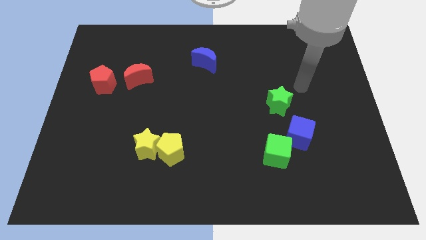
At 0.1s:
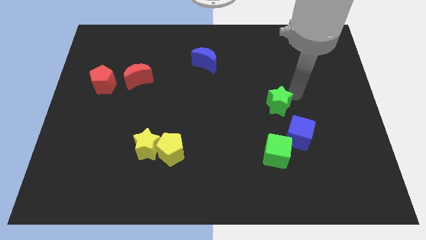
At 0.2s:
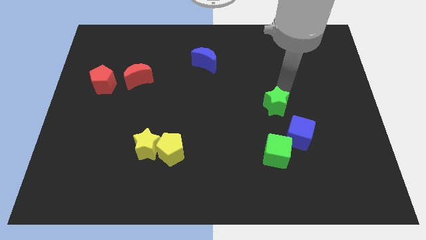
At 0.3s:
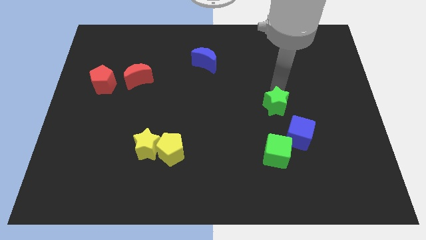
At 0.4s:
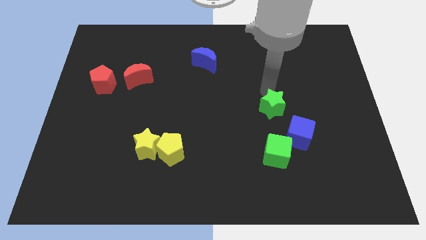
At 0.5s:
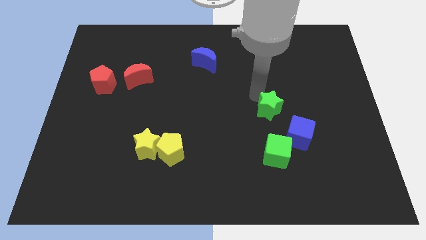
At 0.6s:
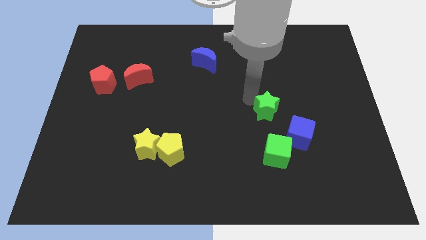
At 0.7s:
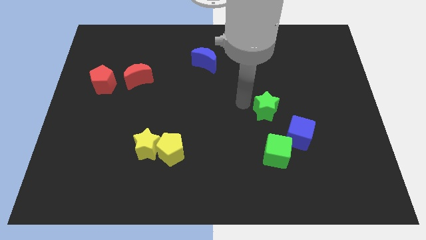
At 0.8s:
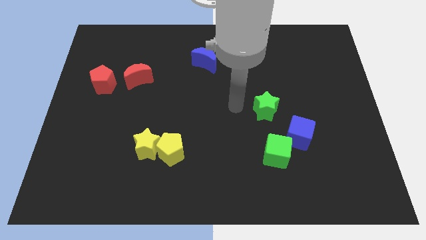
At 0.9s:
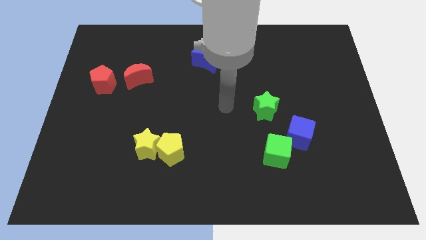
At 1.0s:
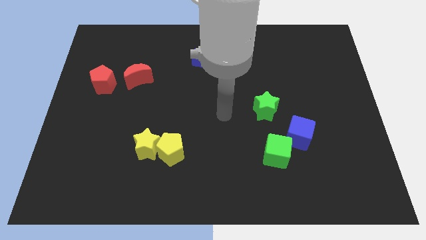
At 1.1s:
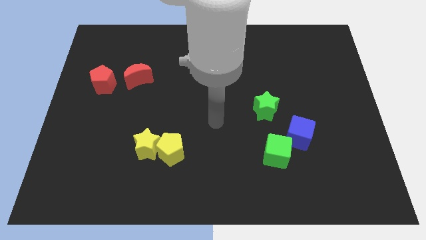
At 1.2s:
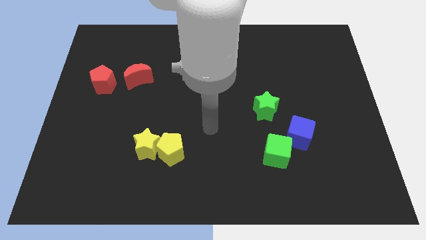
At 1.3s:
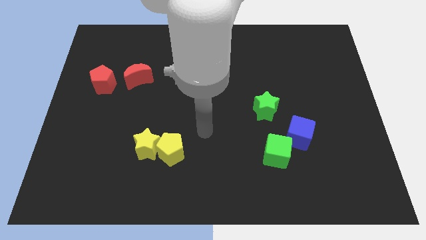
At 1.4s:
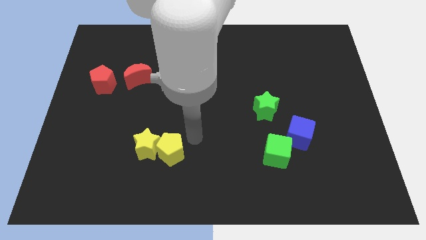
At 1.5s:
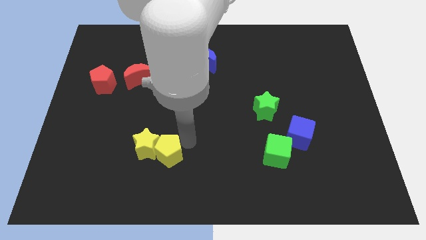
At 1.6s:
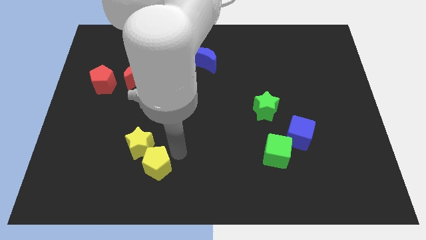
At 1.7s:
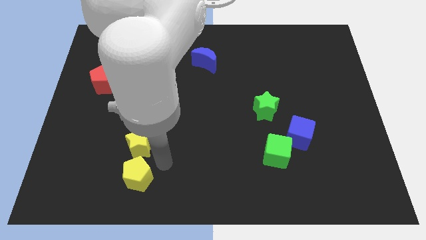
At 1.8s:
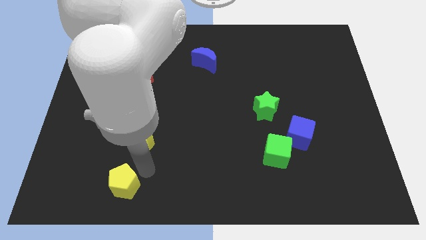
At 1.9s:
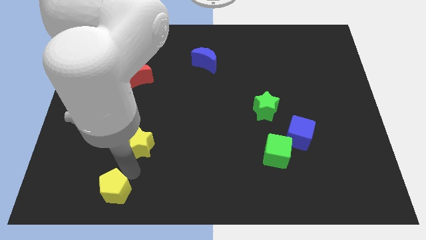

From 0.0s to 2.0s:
move the yellow star away from the yellow pentagon

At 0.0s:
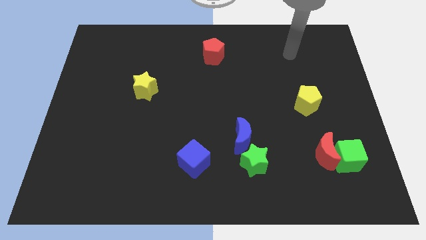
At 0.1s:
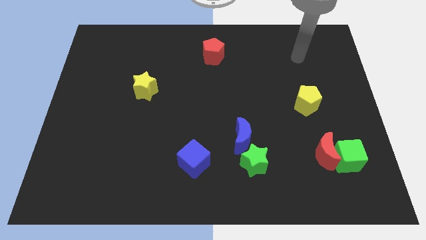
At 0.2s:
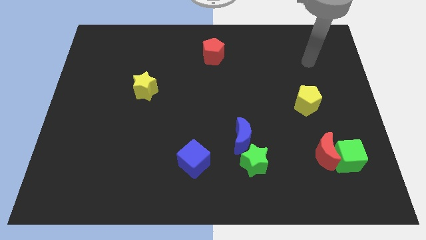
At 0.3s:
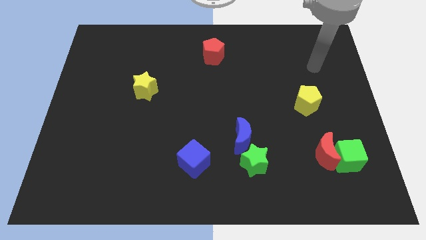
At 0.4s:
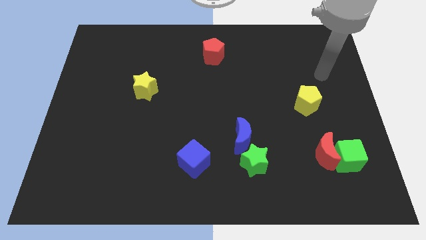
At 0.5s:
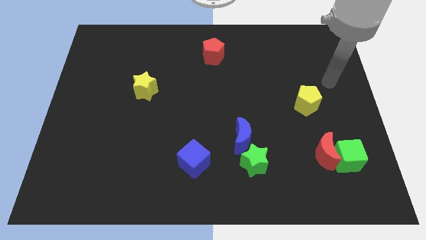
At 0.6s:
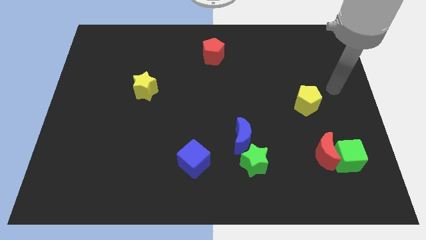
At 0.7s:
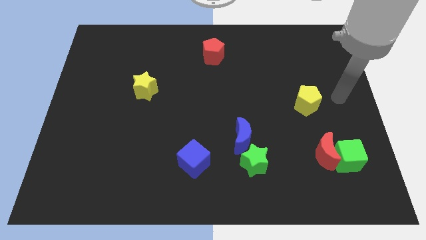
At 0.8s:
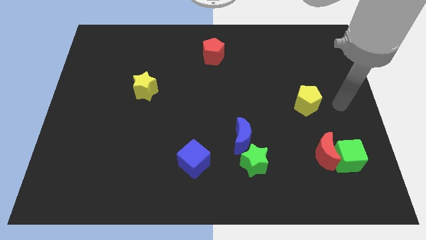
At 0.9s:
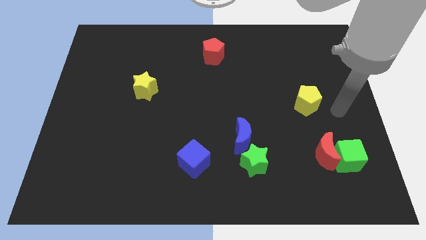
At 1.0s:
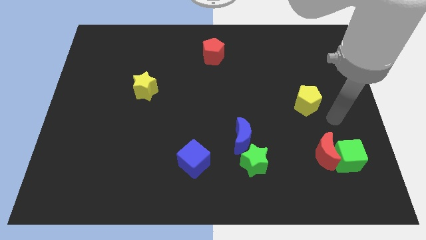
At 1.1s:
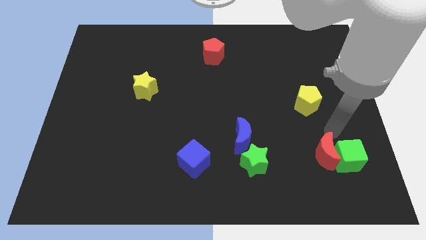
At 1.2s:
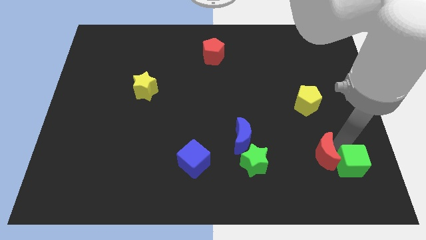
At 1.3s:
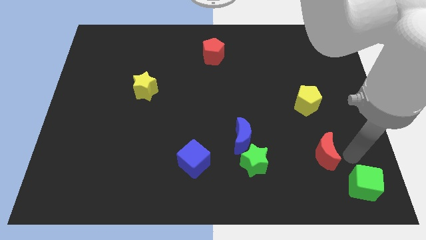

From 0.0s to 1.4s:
move the red moon away from the green cube

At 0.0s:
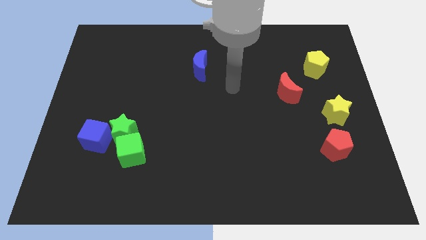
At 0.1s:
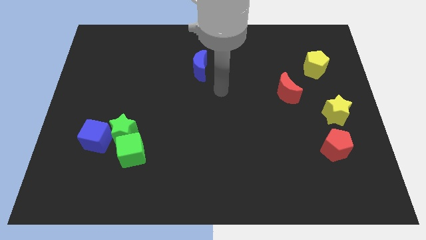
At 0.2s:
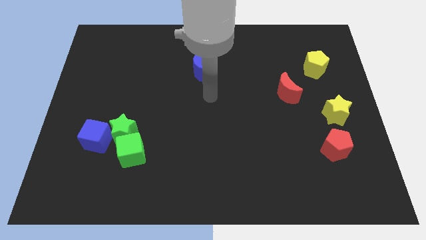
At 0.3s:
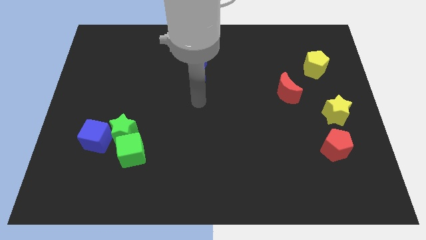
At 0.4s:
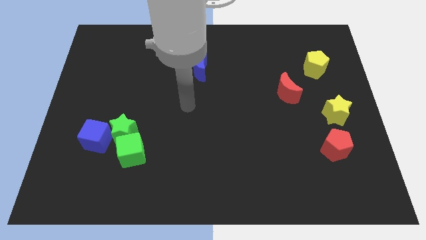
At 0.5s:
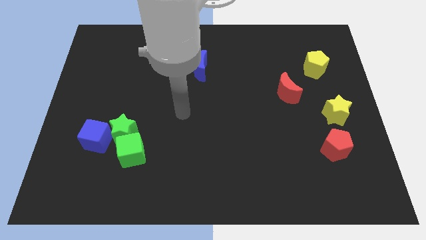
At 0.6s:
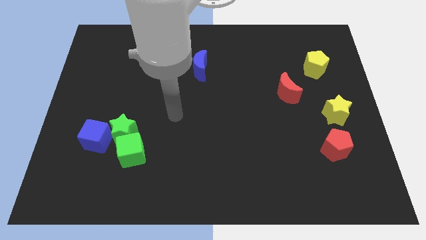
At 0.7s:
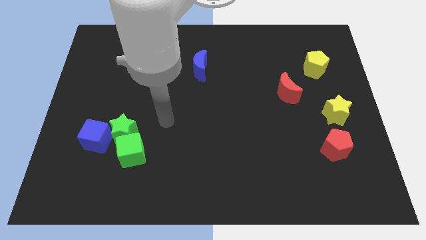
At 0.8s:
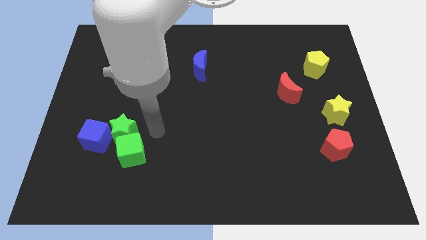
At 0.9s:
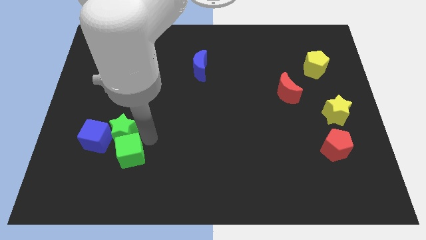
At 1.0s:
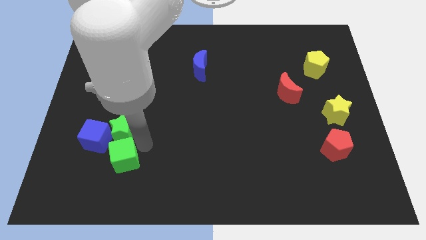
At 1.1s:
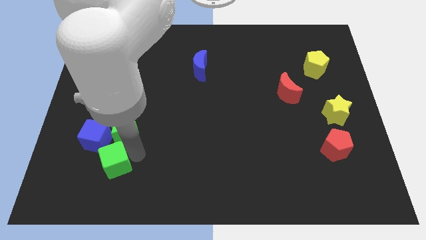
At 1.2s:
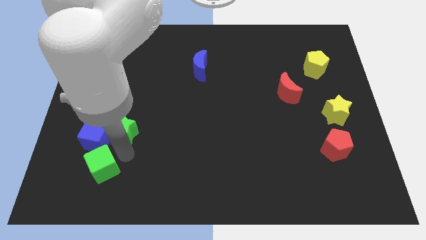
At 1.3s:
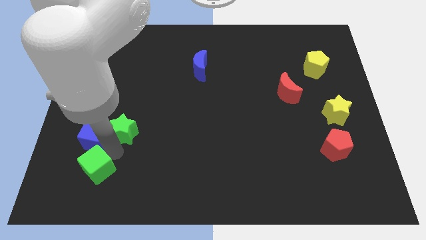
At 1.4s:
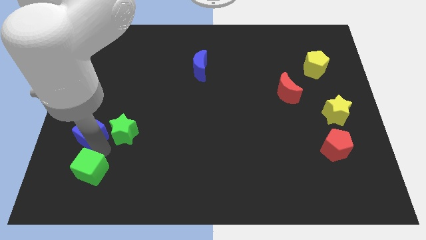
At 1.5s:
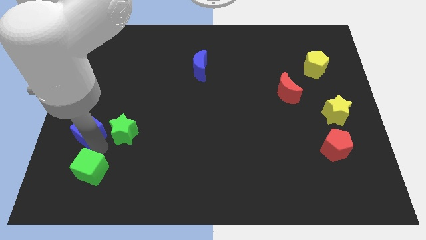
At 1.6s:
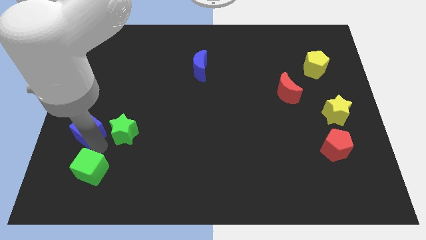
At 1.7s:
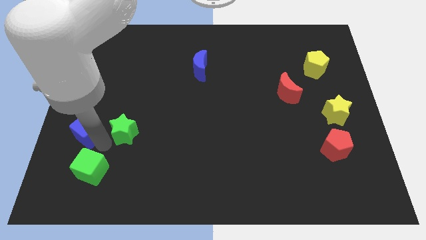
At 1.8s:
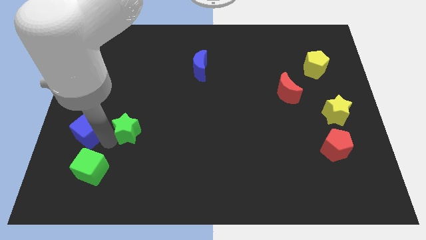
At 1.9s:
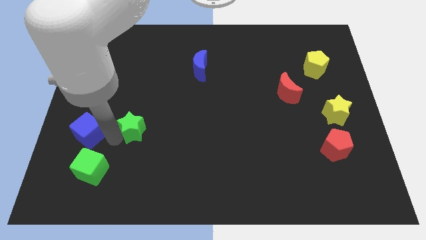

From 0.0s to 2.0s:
move the green star away from the green cube and blue cube

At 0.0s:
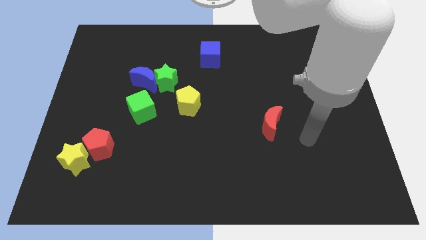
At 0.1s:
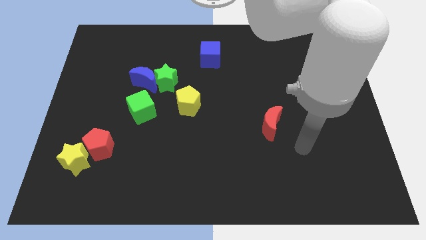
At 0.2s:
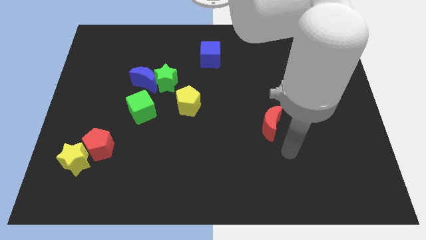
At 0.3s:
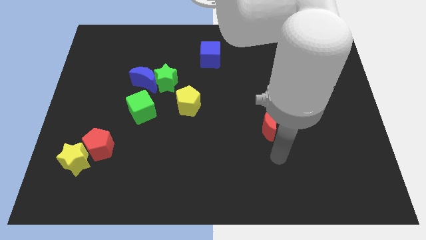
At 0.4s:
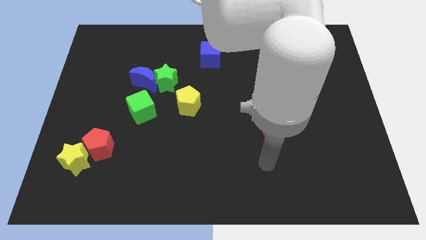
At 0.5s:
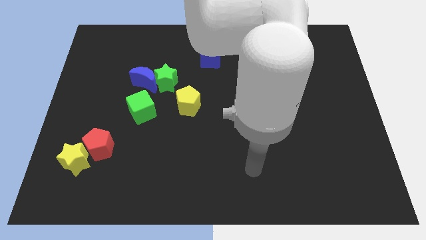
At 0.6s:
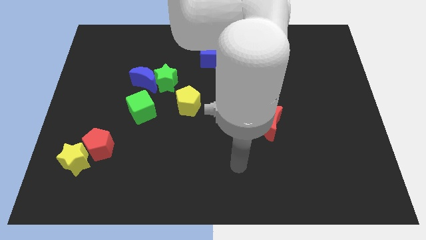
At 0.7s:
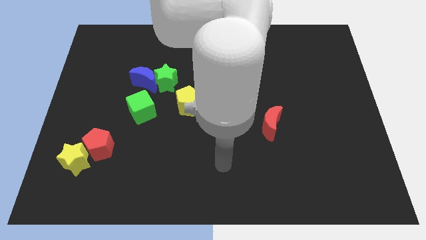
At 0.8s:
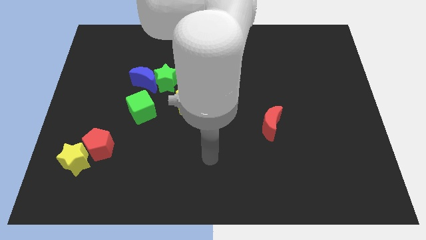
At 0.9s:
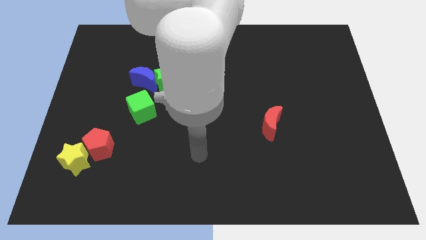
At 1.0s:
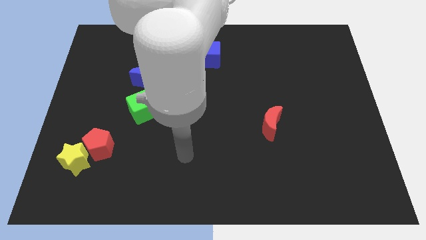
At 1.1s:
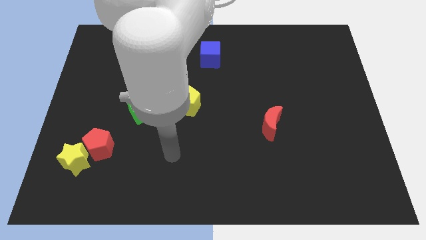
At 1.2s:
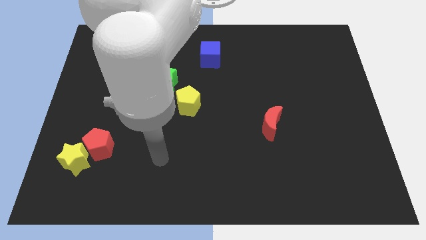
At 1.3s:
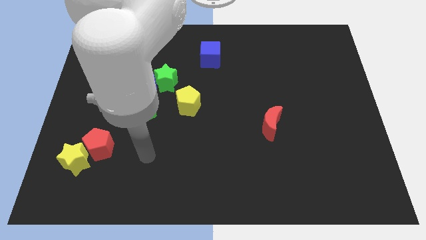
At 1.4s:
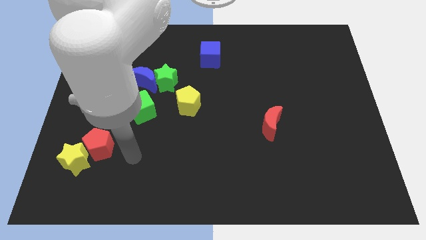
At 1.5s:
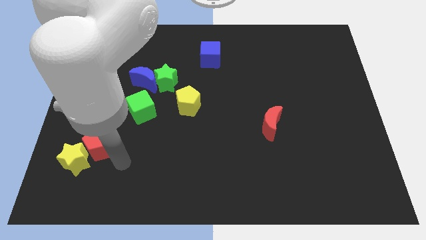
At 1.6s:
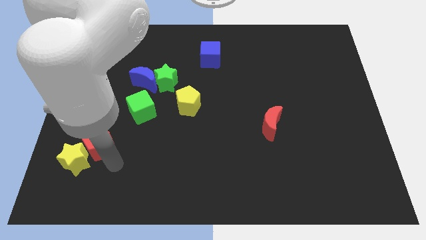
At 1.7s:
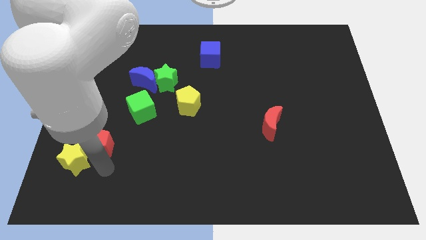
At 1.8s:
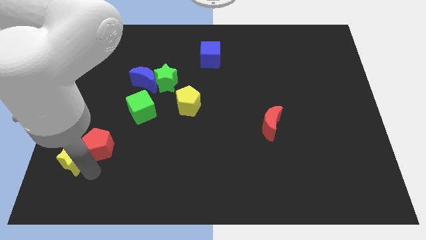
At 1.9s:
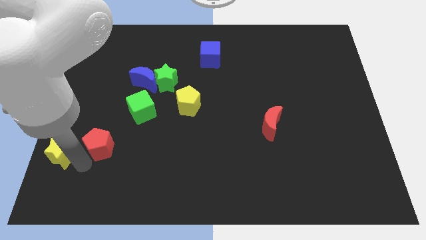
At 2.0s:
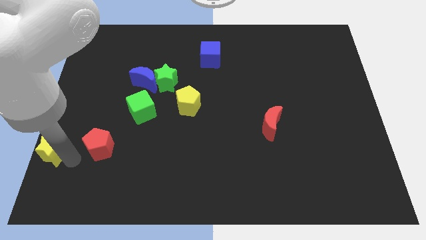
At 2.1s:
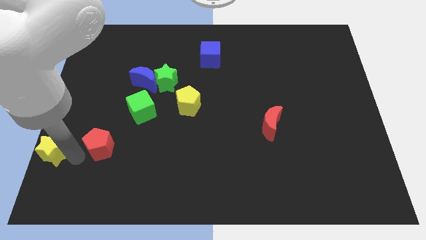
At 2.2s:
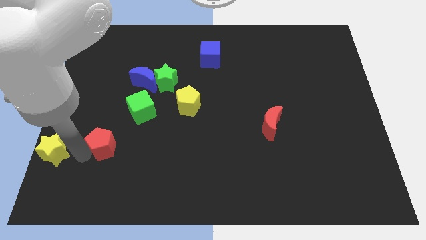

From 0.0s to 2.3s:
separate the red pentagon from the yellow star

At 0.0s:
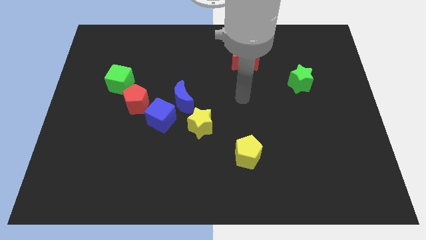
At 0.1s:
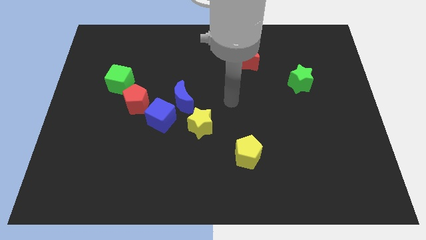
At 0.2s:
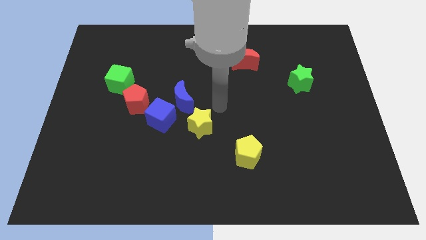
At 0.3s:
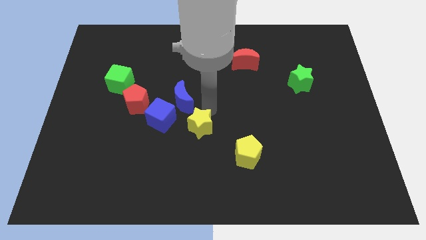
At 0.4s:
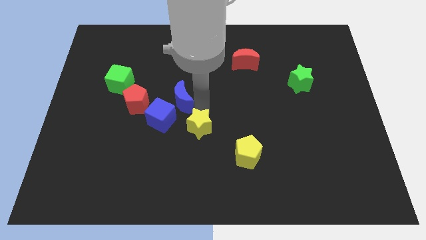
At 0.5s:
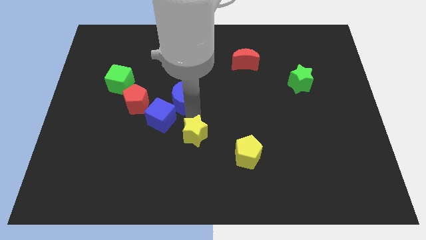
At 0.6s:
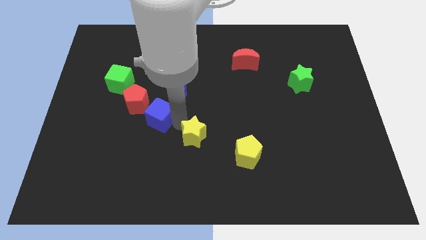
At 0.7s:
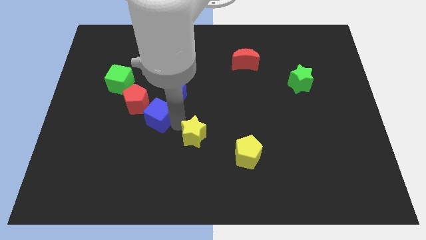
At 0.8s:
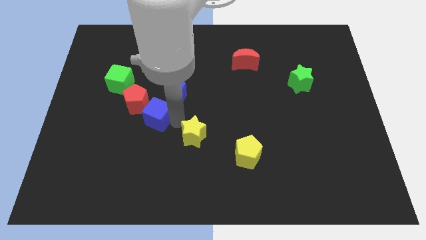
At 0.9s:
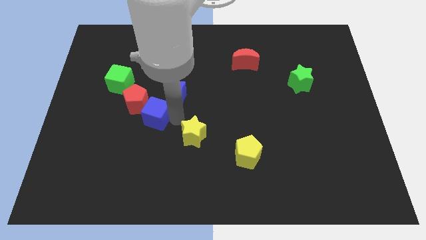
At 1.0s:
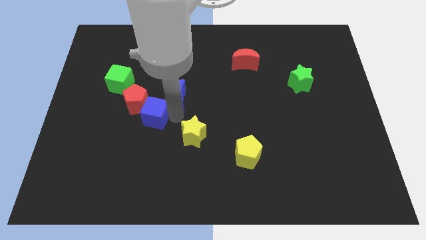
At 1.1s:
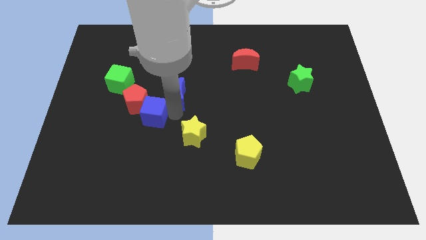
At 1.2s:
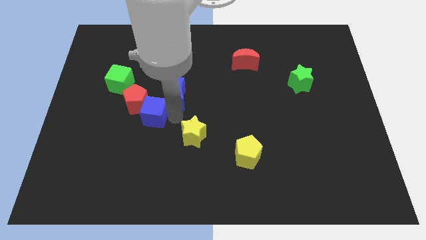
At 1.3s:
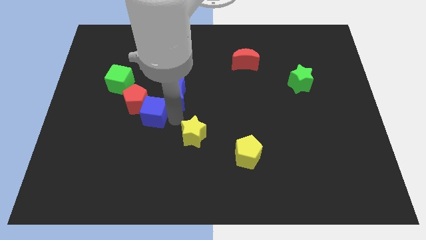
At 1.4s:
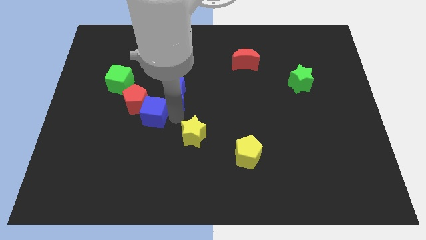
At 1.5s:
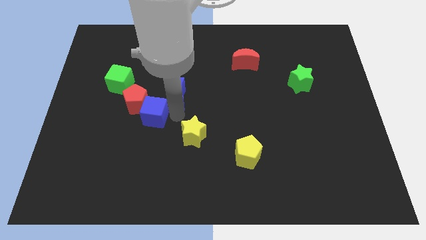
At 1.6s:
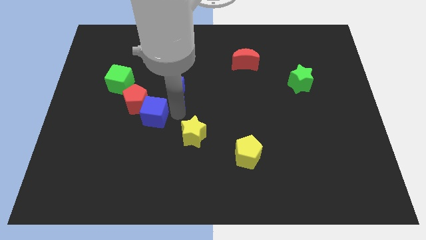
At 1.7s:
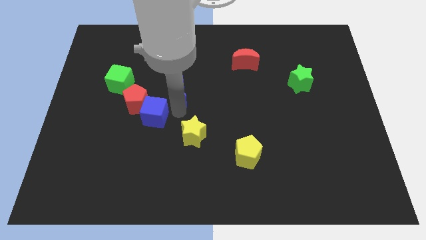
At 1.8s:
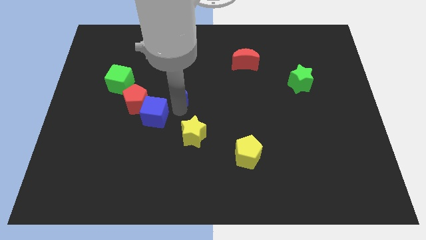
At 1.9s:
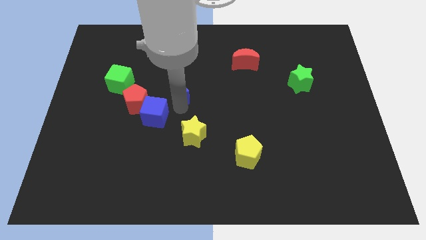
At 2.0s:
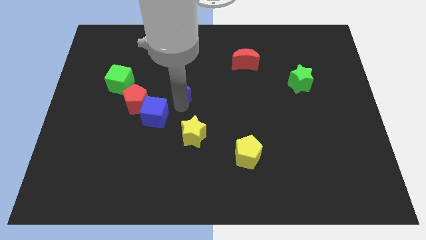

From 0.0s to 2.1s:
move the blue moon away from the blue cube and yellow star
